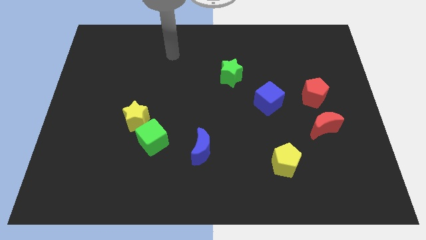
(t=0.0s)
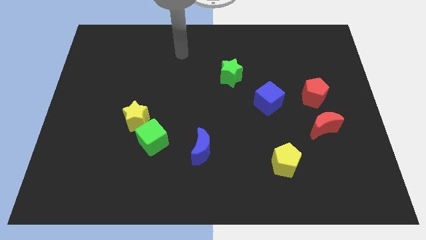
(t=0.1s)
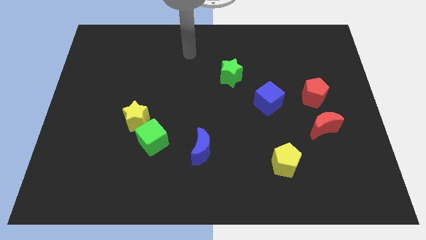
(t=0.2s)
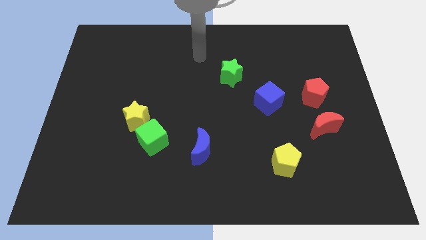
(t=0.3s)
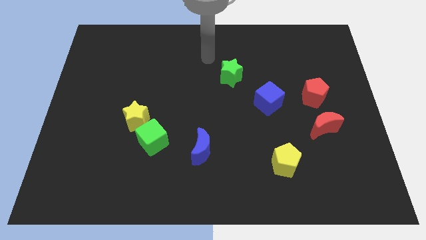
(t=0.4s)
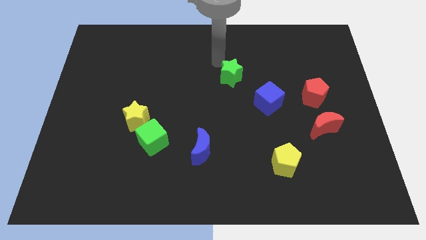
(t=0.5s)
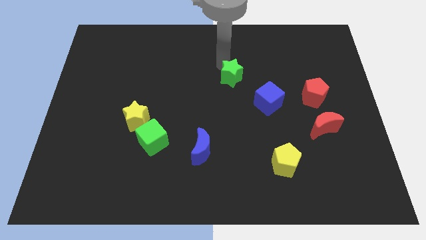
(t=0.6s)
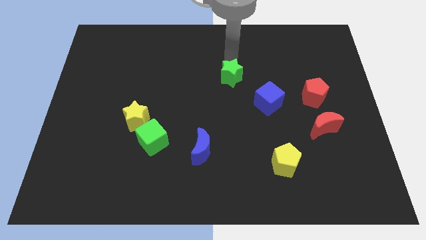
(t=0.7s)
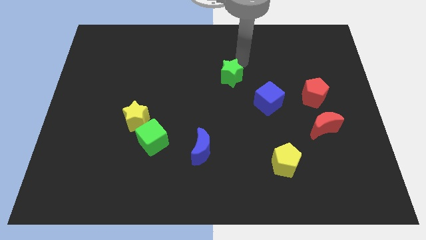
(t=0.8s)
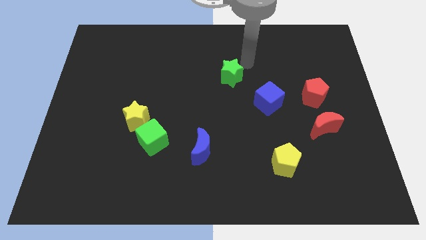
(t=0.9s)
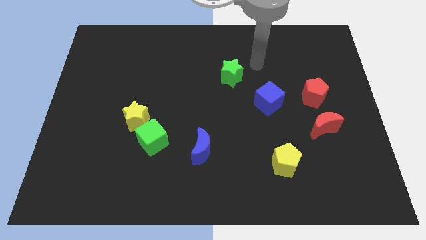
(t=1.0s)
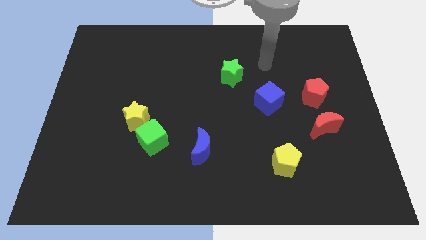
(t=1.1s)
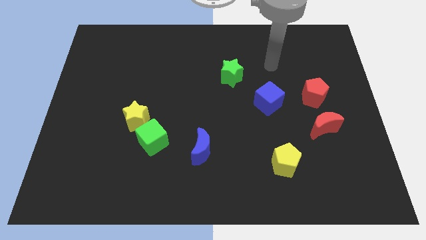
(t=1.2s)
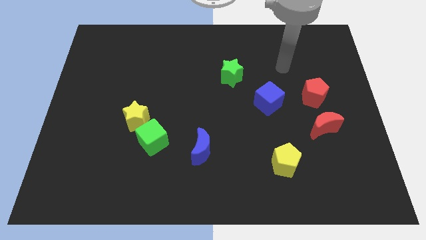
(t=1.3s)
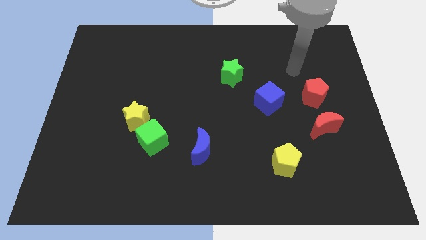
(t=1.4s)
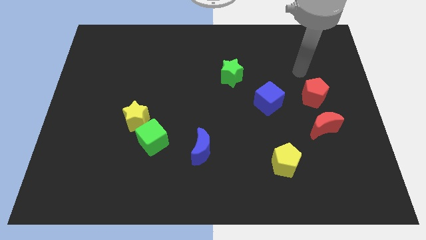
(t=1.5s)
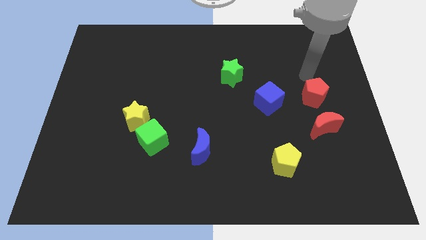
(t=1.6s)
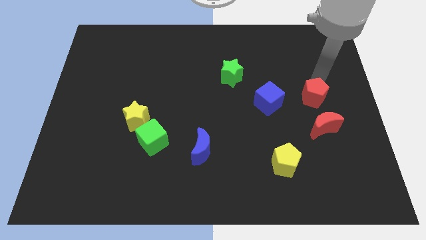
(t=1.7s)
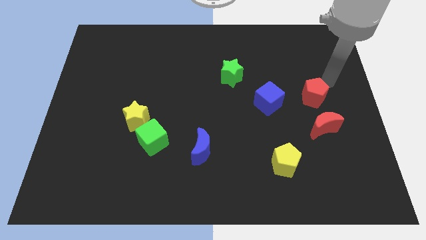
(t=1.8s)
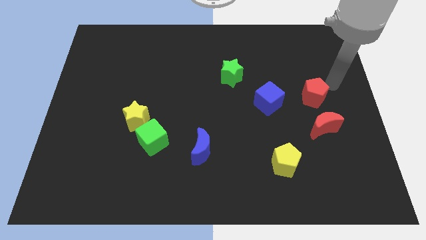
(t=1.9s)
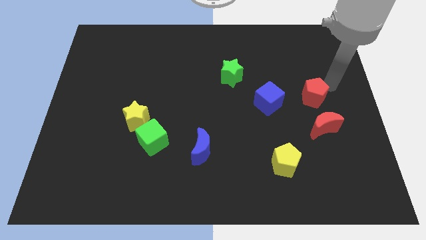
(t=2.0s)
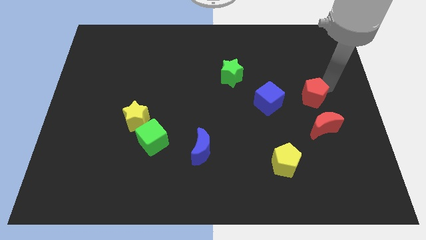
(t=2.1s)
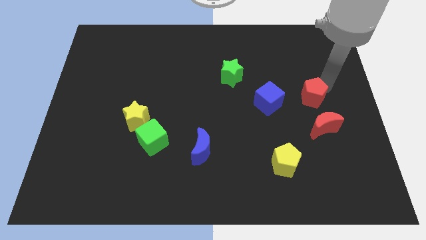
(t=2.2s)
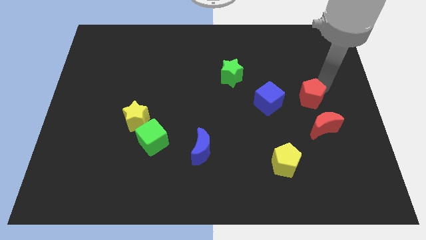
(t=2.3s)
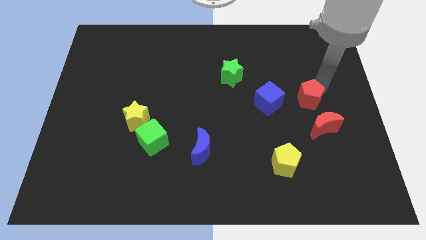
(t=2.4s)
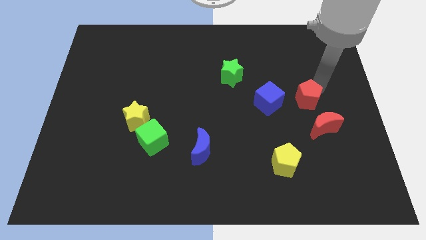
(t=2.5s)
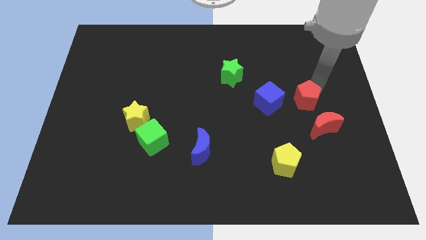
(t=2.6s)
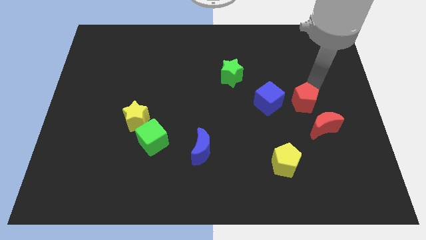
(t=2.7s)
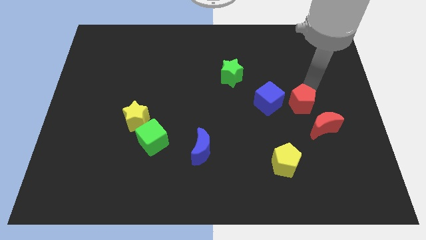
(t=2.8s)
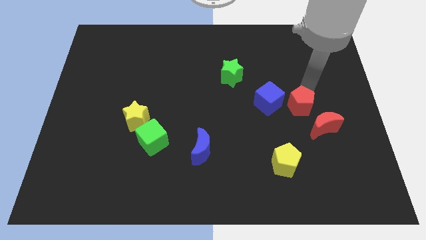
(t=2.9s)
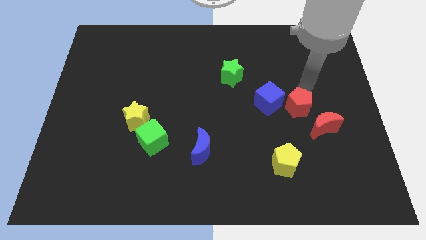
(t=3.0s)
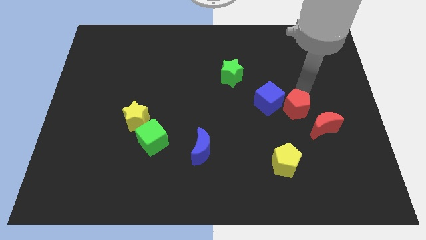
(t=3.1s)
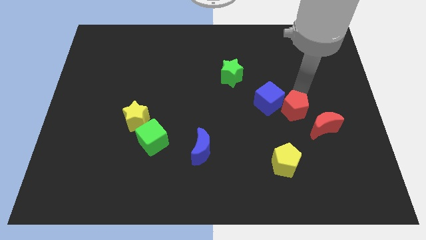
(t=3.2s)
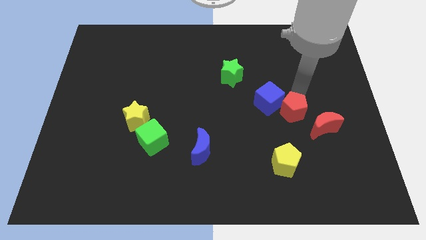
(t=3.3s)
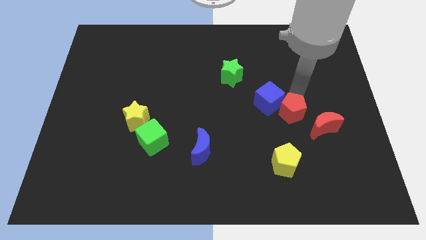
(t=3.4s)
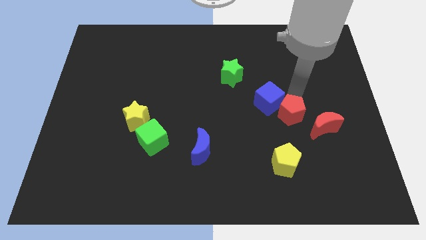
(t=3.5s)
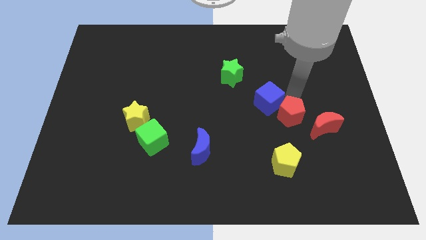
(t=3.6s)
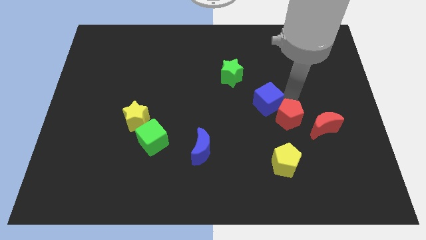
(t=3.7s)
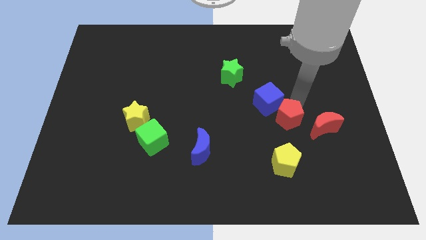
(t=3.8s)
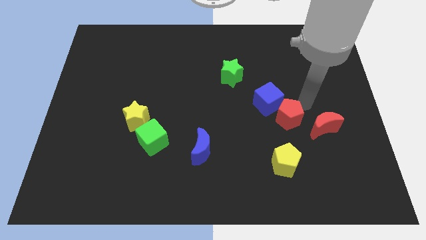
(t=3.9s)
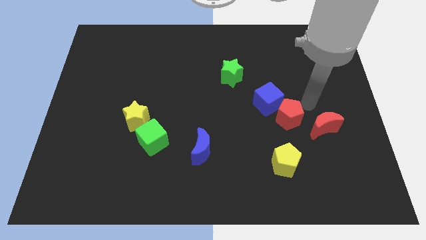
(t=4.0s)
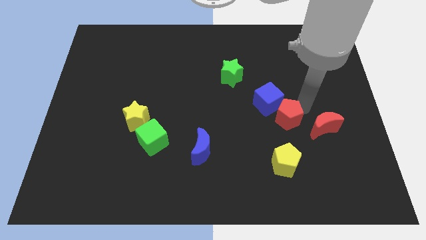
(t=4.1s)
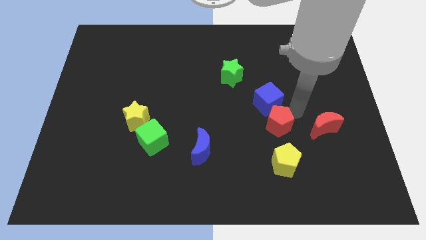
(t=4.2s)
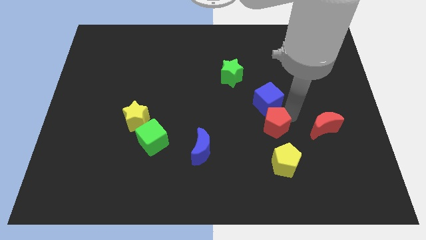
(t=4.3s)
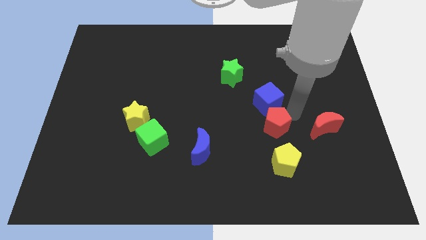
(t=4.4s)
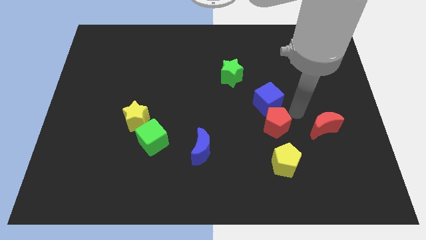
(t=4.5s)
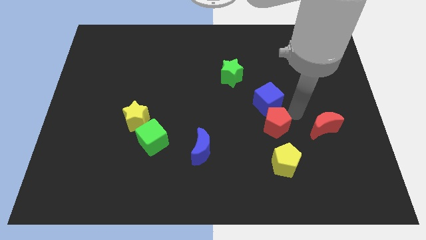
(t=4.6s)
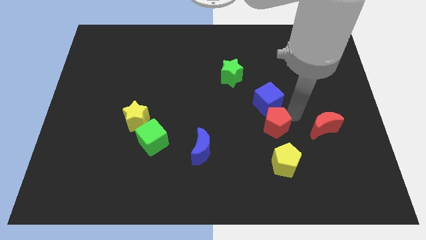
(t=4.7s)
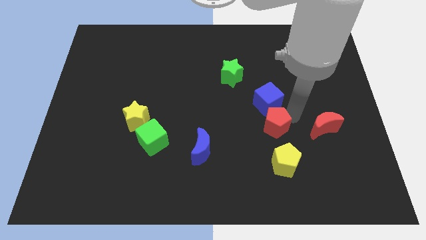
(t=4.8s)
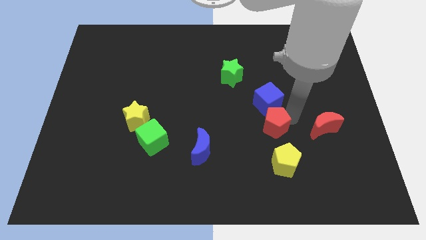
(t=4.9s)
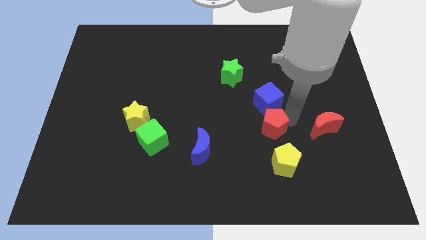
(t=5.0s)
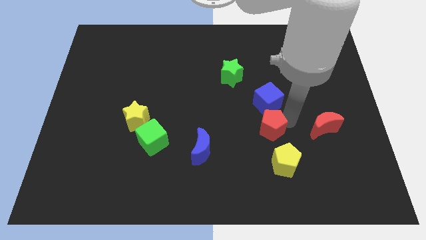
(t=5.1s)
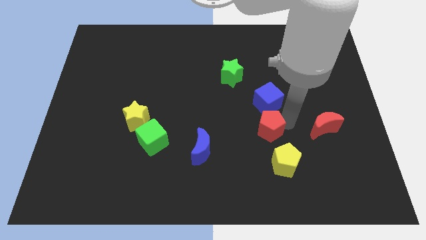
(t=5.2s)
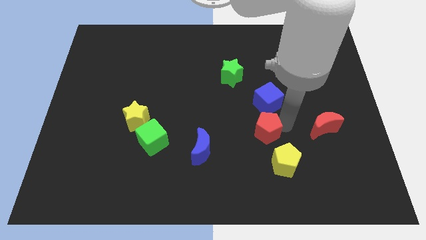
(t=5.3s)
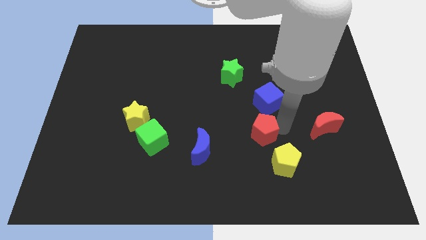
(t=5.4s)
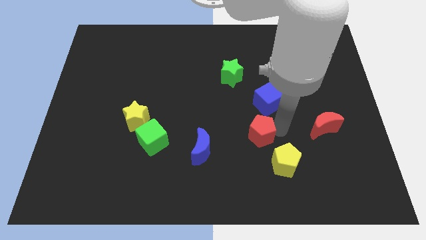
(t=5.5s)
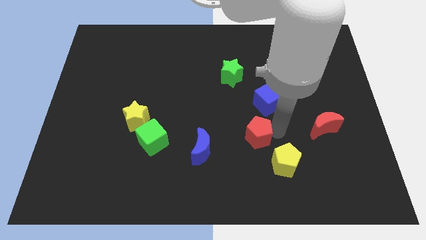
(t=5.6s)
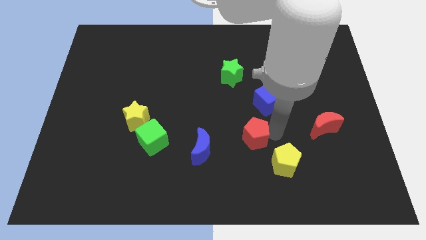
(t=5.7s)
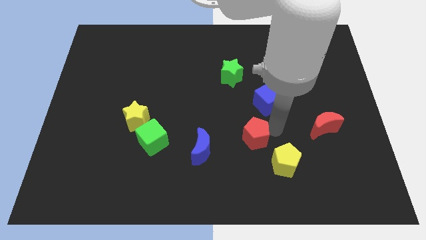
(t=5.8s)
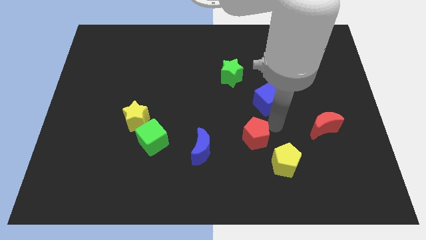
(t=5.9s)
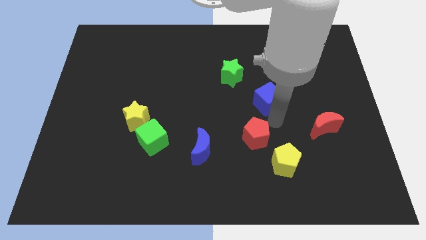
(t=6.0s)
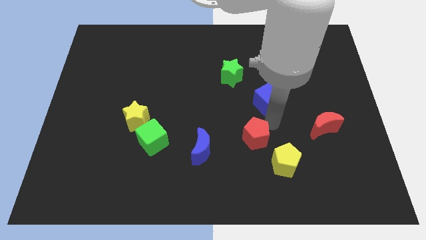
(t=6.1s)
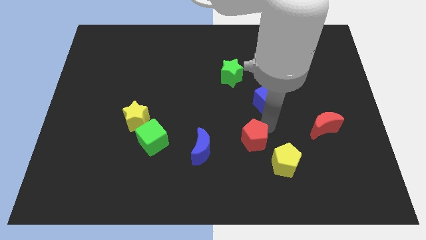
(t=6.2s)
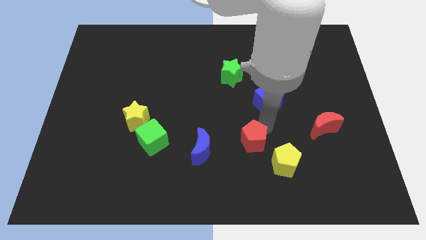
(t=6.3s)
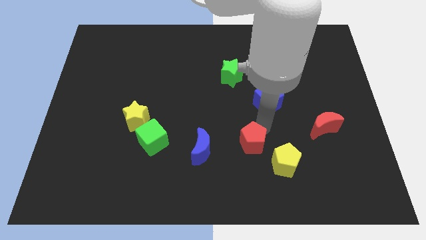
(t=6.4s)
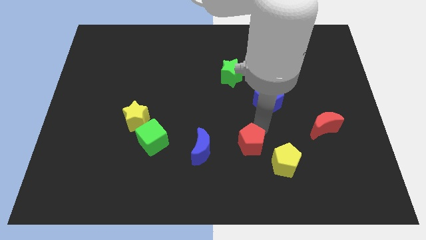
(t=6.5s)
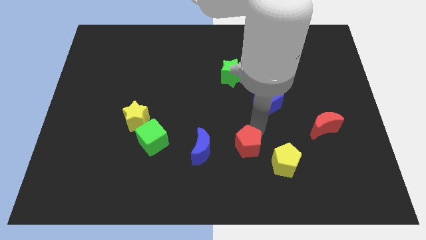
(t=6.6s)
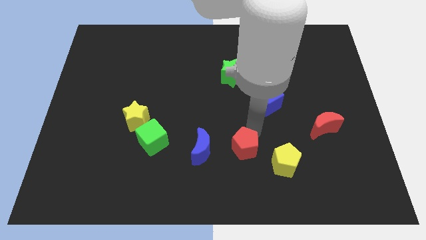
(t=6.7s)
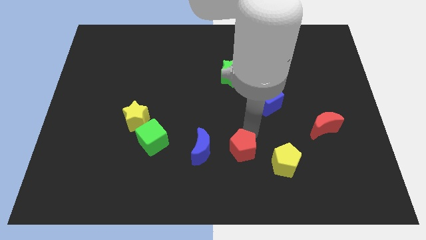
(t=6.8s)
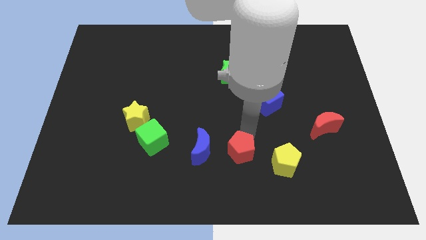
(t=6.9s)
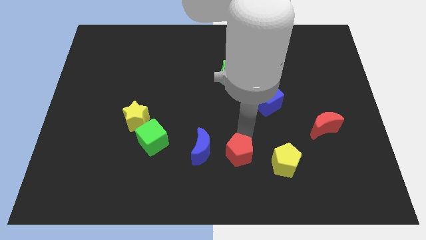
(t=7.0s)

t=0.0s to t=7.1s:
push the red pentagon to the bottom right of the blue moon
